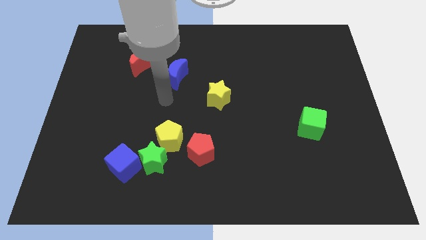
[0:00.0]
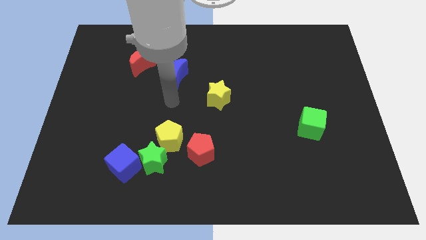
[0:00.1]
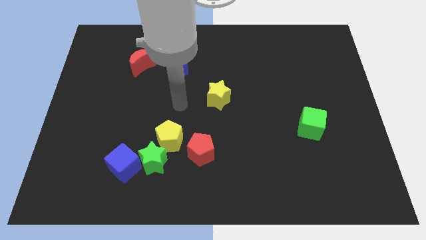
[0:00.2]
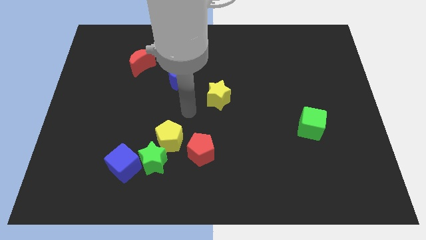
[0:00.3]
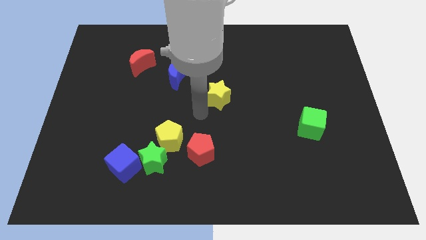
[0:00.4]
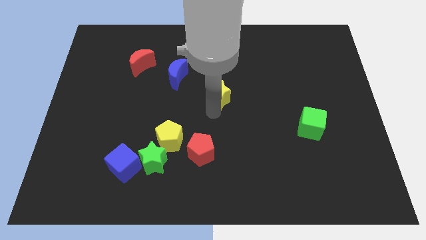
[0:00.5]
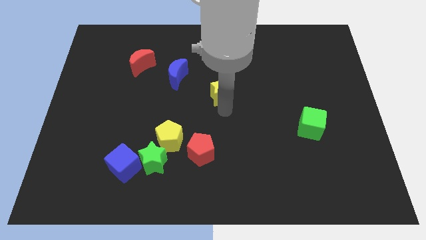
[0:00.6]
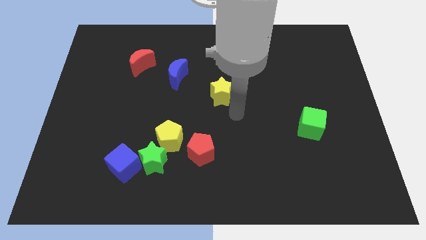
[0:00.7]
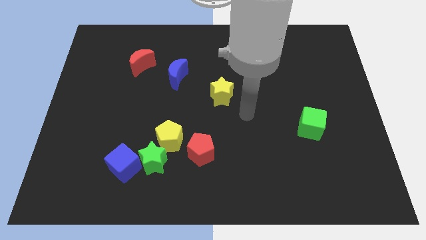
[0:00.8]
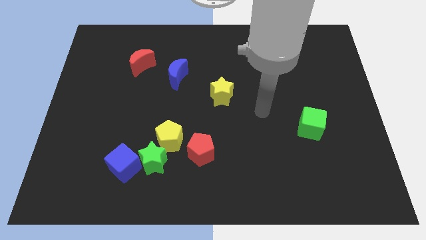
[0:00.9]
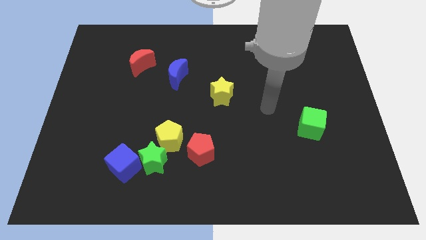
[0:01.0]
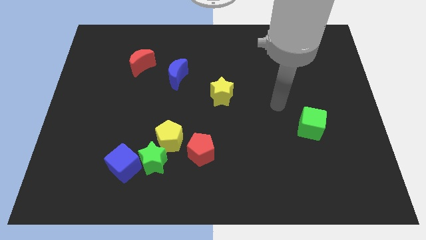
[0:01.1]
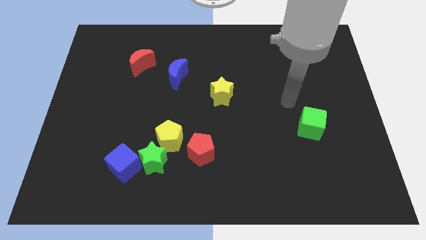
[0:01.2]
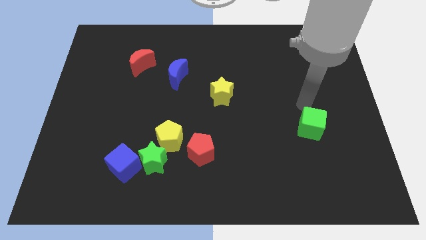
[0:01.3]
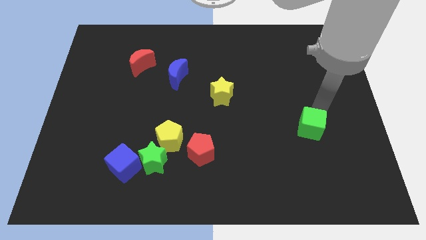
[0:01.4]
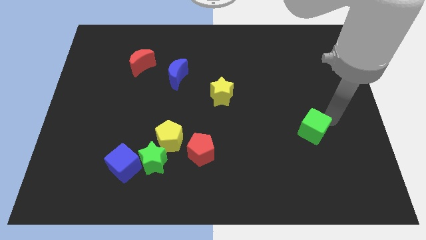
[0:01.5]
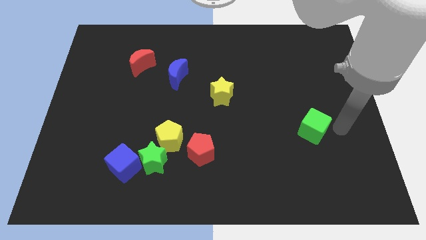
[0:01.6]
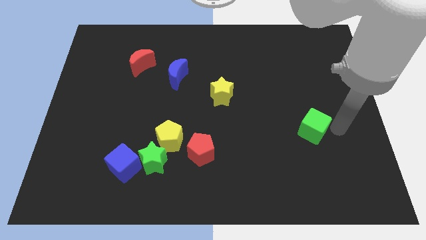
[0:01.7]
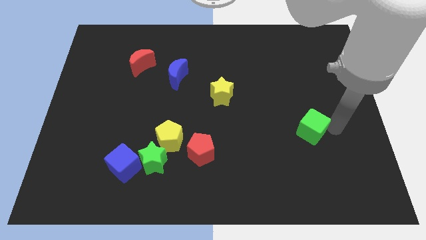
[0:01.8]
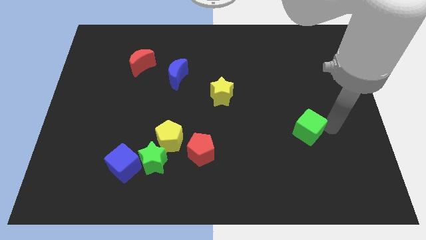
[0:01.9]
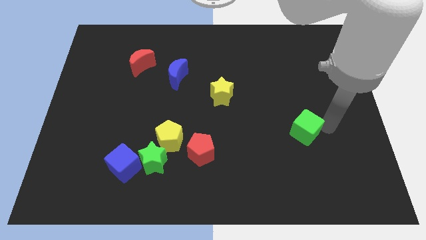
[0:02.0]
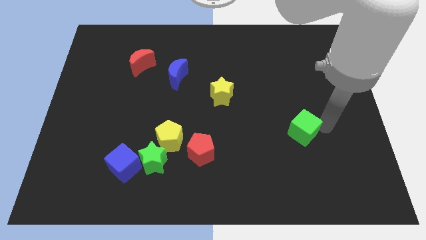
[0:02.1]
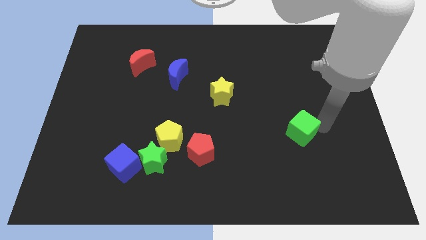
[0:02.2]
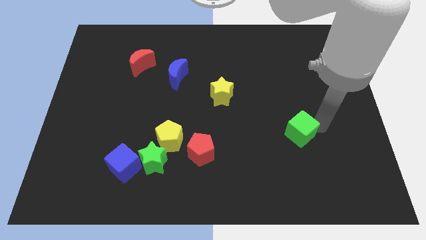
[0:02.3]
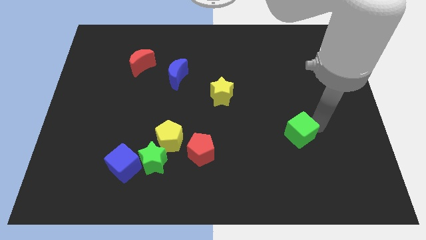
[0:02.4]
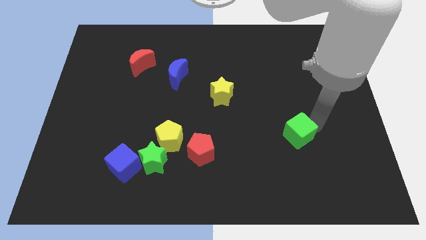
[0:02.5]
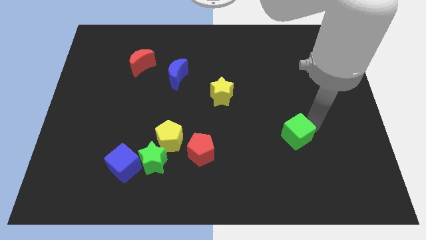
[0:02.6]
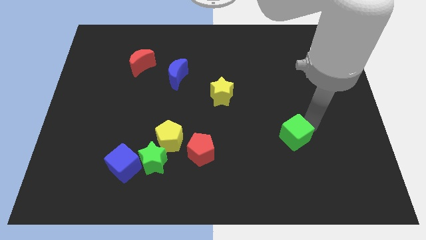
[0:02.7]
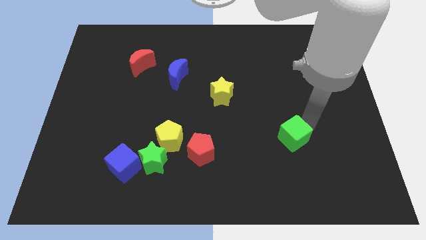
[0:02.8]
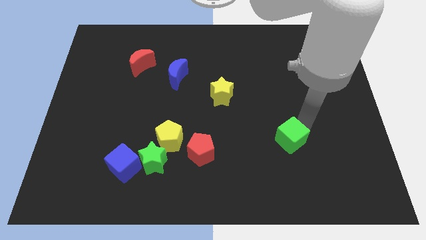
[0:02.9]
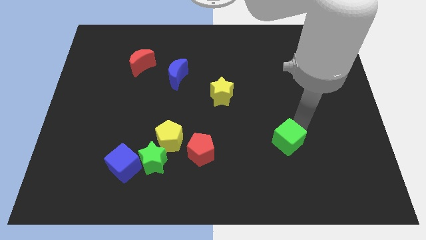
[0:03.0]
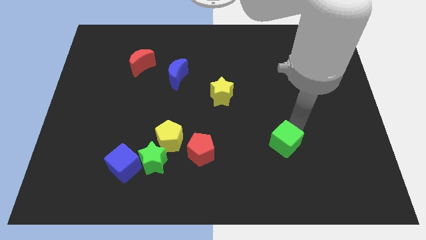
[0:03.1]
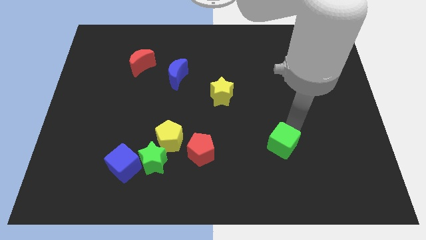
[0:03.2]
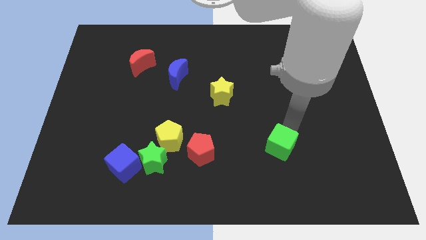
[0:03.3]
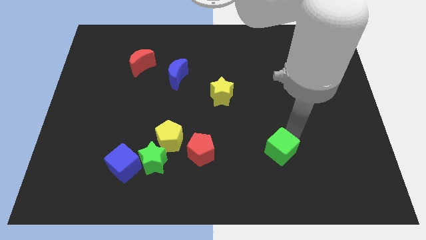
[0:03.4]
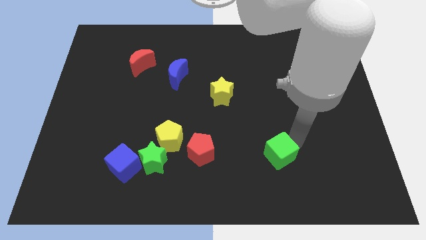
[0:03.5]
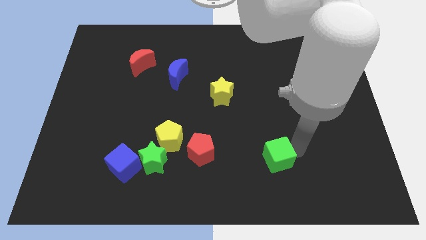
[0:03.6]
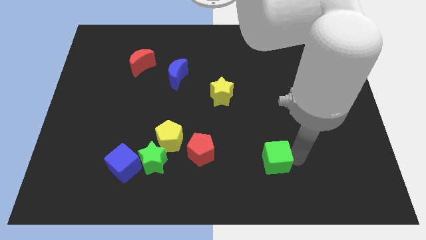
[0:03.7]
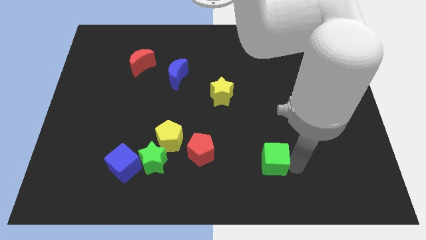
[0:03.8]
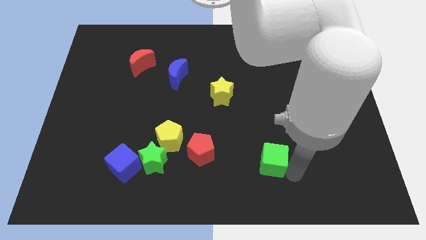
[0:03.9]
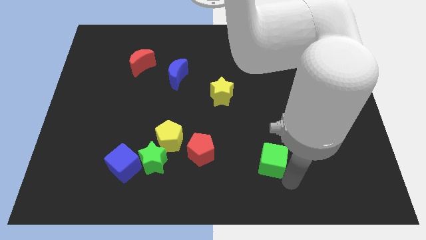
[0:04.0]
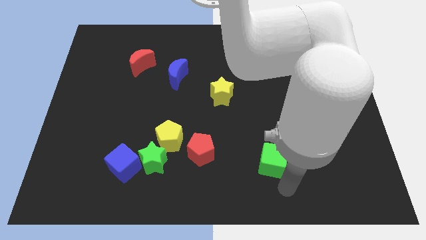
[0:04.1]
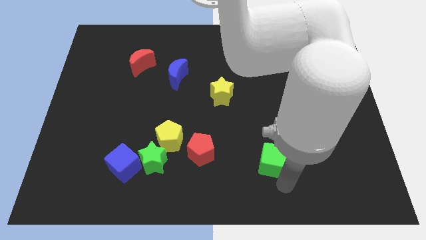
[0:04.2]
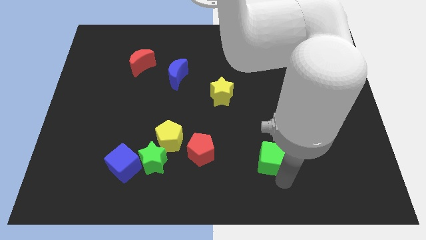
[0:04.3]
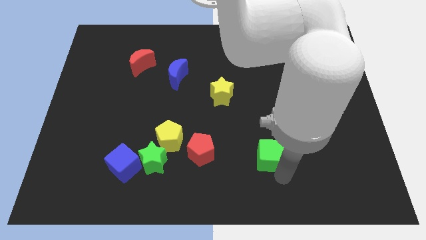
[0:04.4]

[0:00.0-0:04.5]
slightly move the green cube left

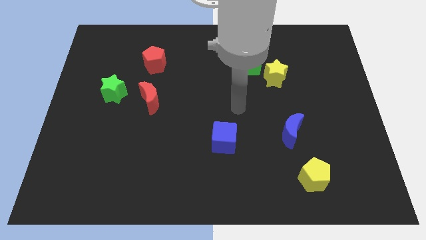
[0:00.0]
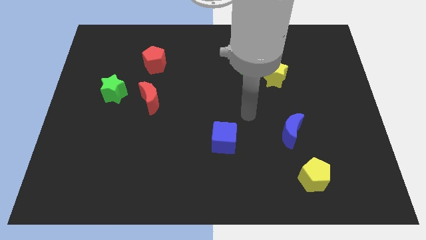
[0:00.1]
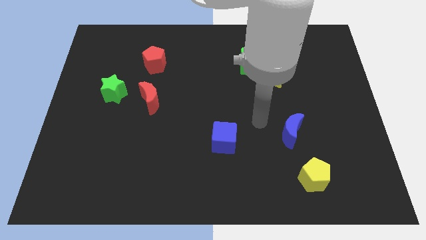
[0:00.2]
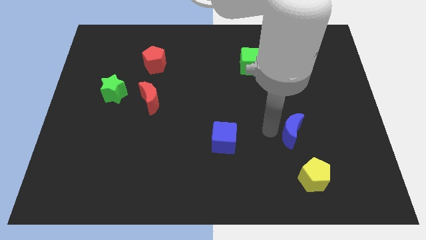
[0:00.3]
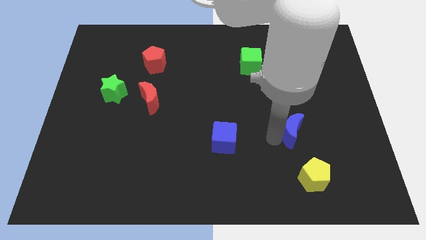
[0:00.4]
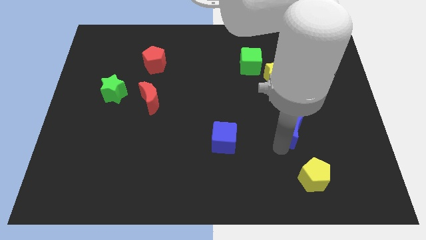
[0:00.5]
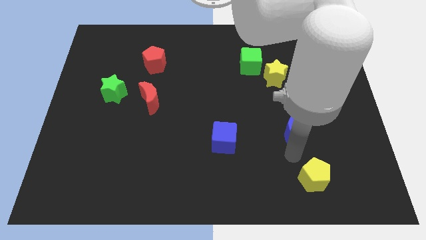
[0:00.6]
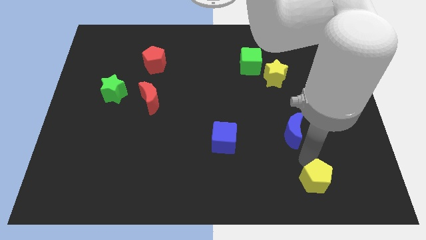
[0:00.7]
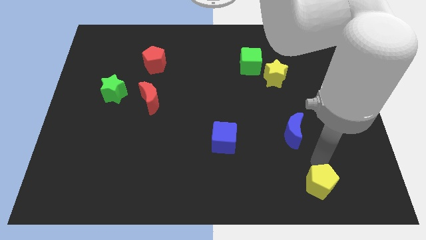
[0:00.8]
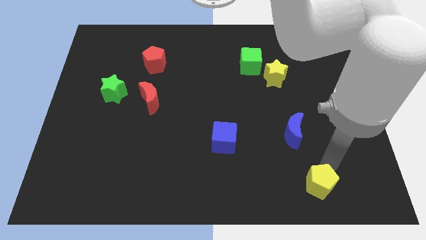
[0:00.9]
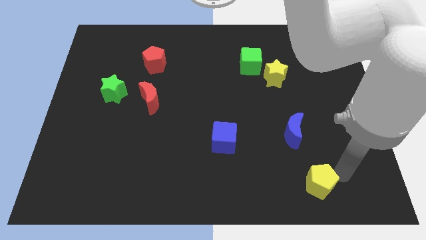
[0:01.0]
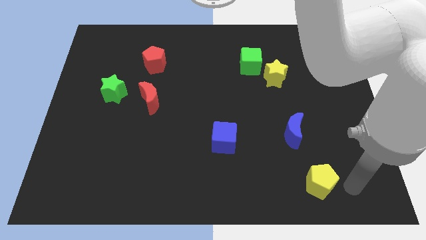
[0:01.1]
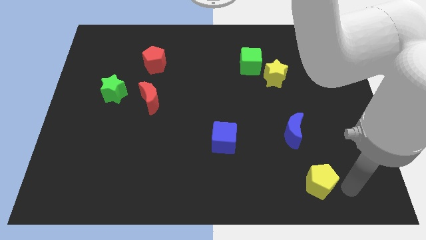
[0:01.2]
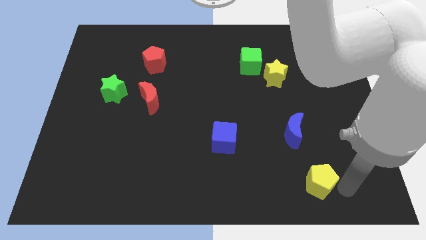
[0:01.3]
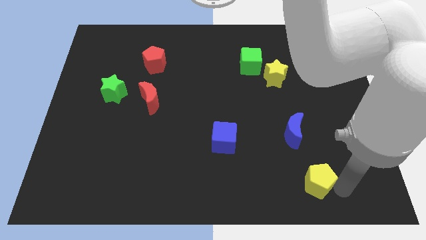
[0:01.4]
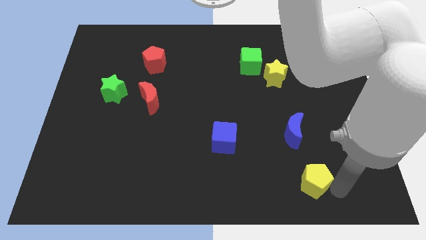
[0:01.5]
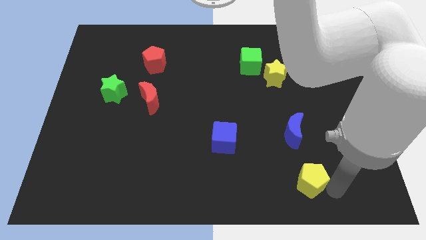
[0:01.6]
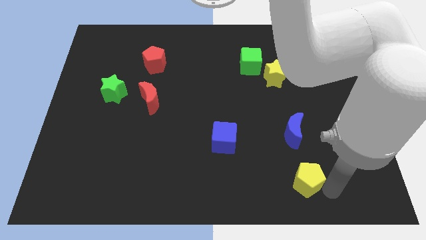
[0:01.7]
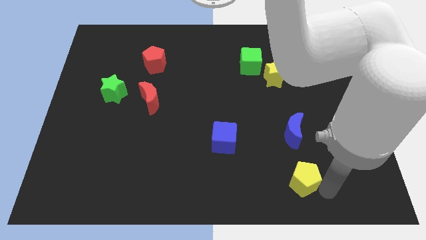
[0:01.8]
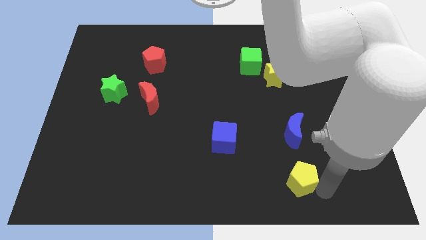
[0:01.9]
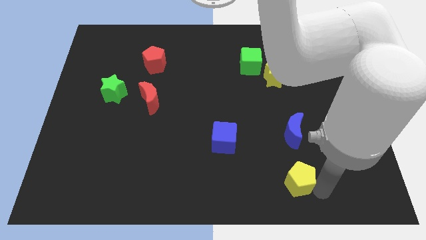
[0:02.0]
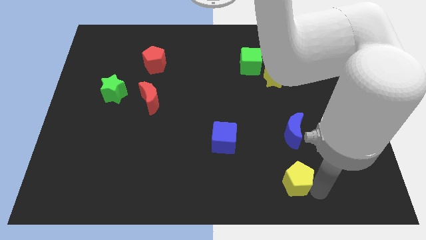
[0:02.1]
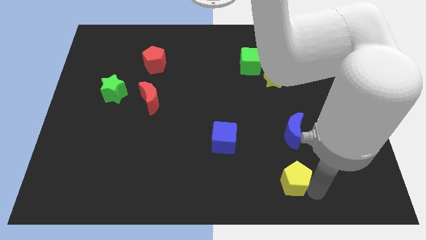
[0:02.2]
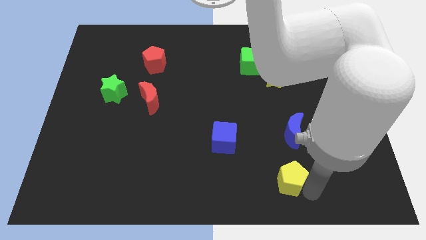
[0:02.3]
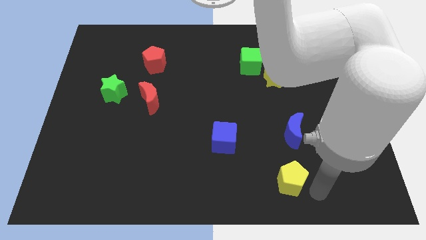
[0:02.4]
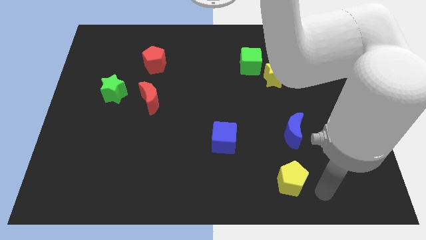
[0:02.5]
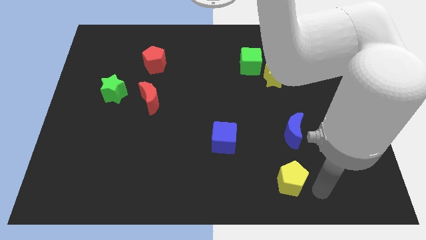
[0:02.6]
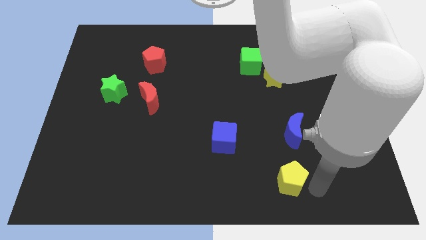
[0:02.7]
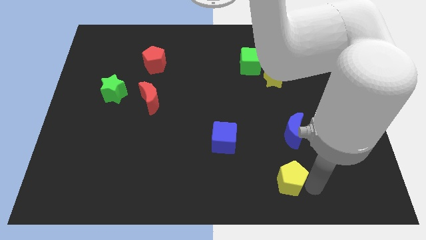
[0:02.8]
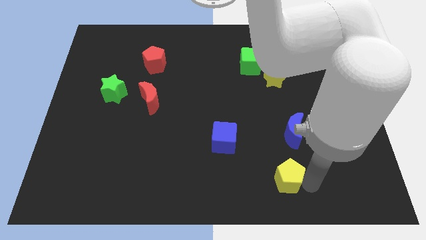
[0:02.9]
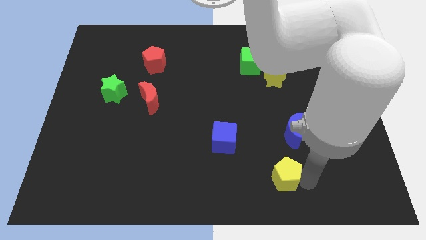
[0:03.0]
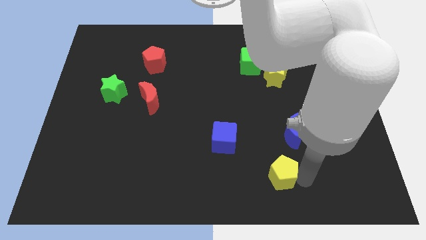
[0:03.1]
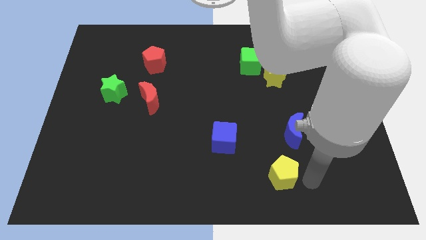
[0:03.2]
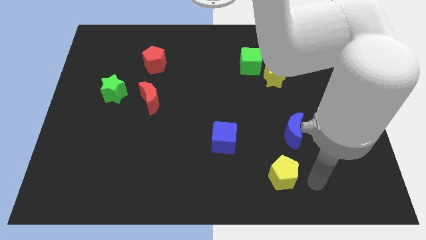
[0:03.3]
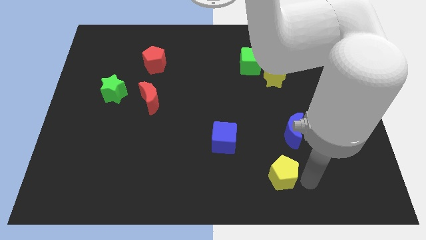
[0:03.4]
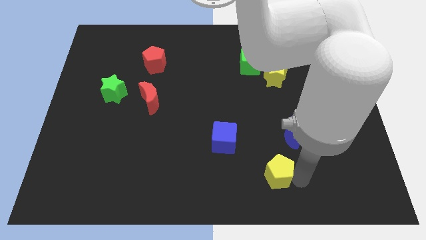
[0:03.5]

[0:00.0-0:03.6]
push the yellow pentagon a little bit to the left

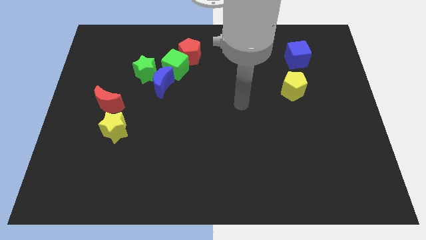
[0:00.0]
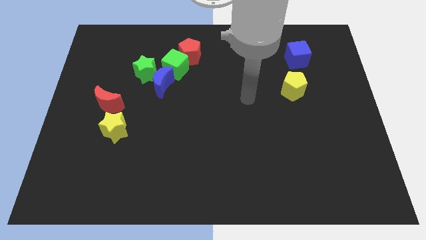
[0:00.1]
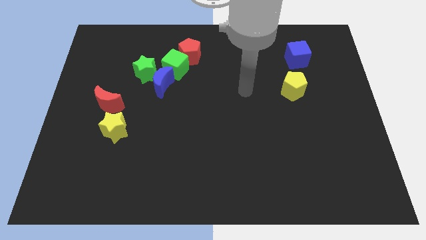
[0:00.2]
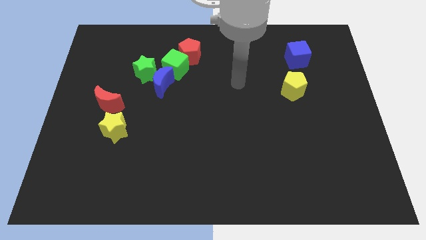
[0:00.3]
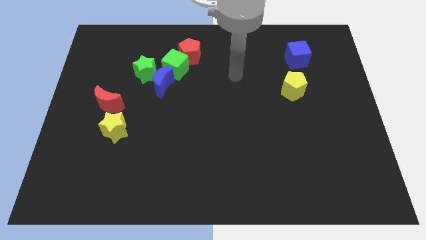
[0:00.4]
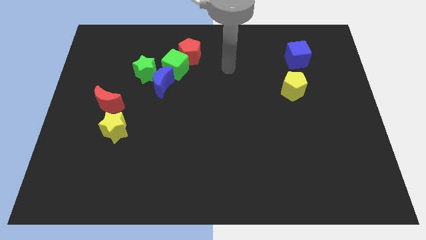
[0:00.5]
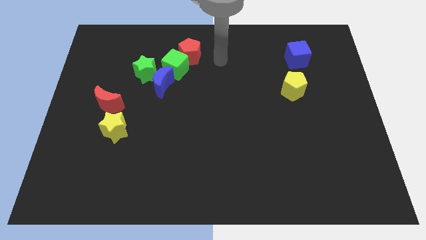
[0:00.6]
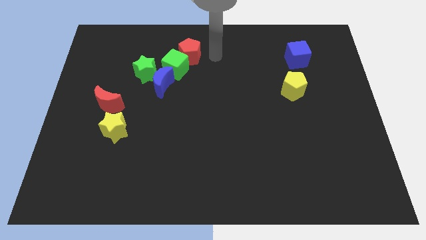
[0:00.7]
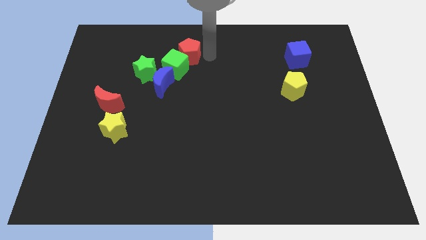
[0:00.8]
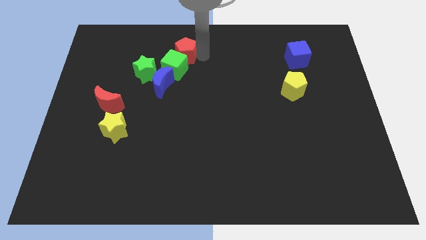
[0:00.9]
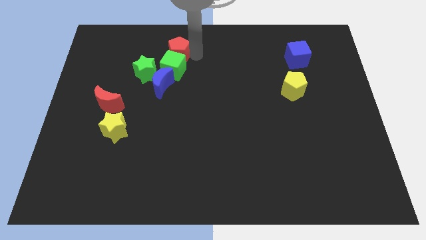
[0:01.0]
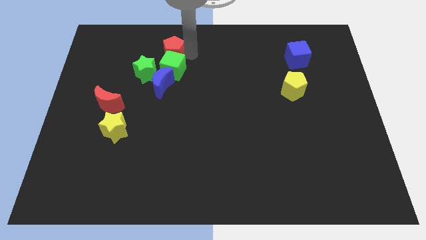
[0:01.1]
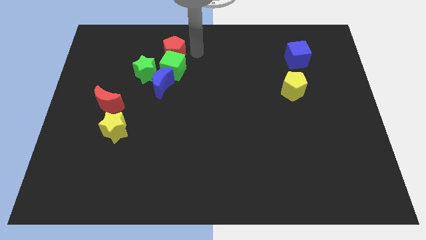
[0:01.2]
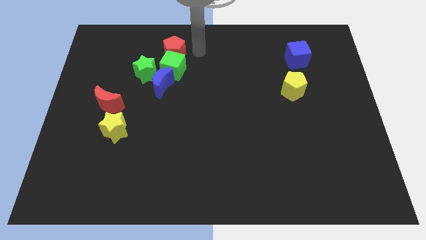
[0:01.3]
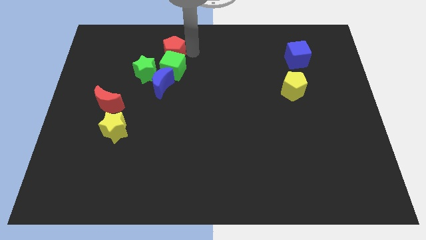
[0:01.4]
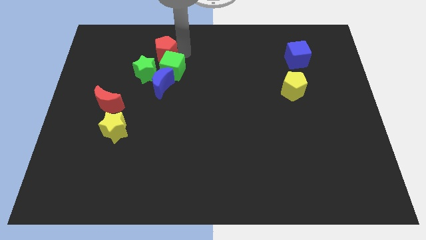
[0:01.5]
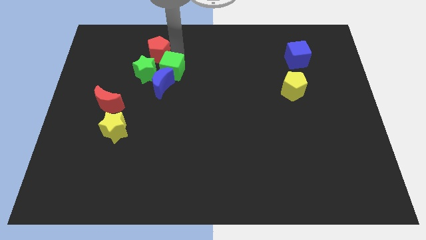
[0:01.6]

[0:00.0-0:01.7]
slightly move the red pentagon left
